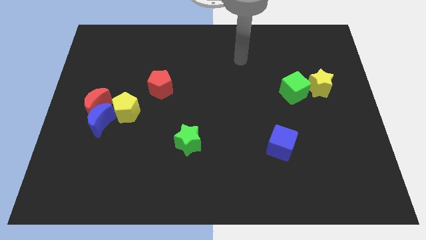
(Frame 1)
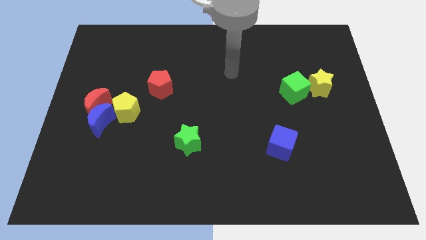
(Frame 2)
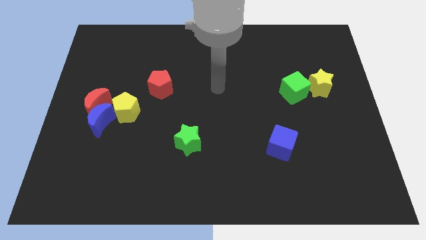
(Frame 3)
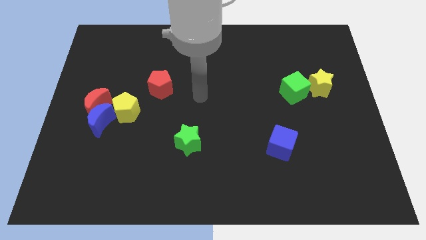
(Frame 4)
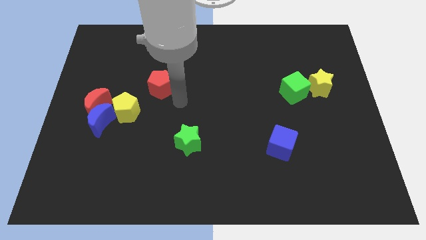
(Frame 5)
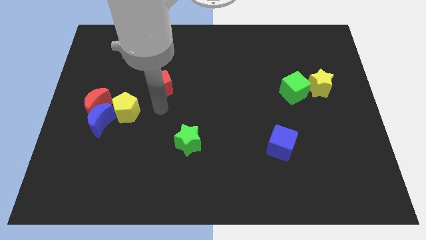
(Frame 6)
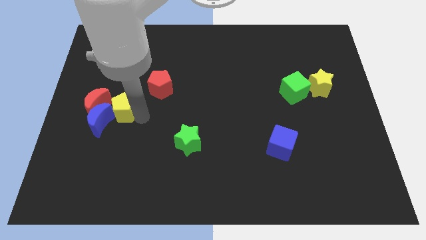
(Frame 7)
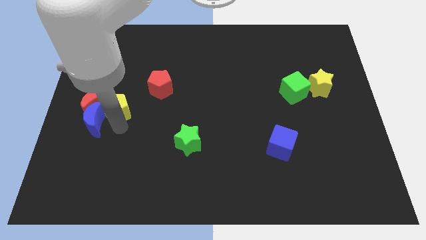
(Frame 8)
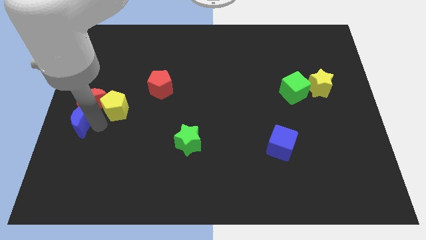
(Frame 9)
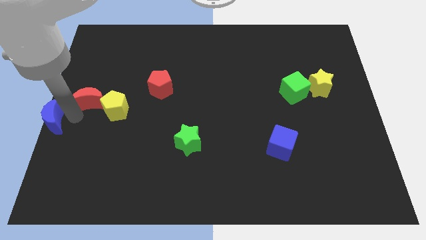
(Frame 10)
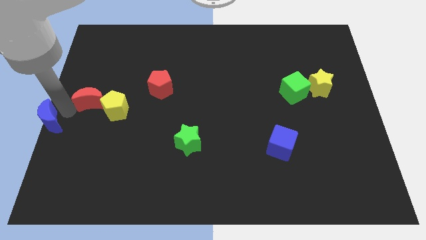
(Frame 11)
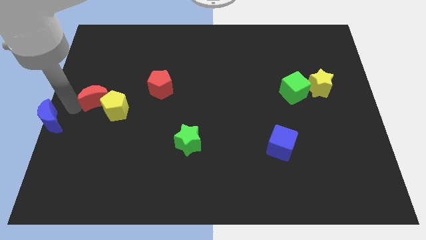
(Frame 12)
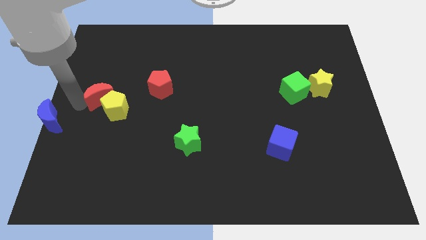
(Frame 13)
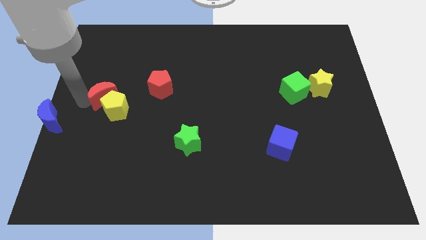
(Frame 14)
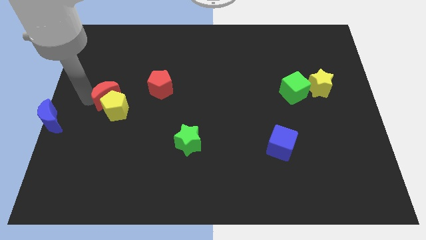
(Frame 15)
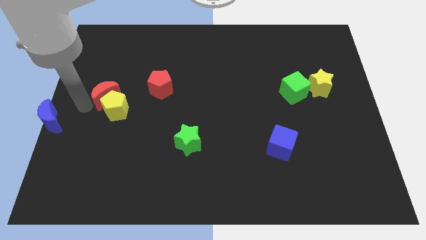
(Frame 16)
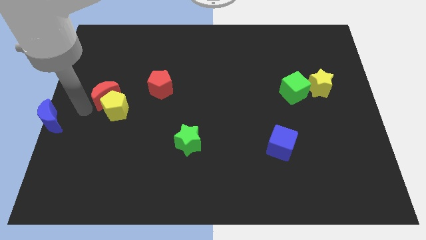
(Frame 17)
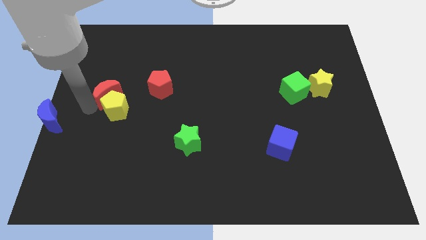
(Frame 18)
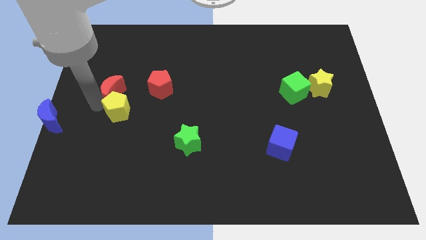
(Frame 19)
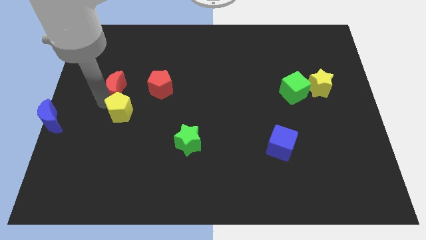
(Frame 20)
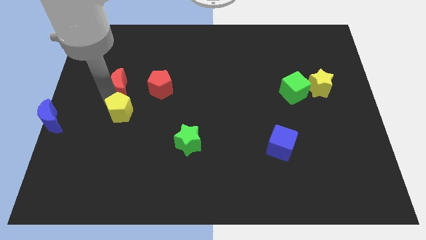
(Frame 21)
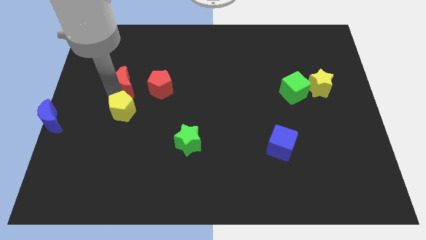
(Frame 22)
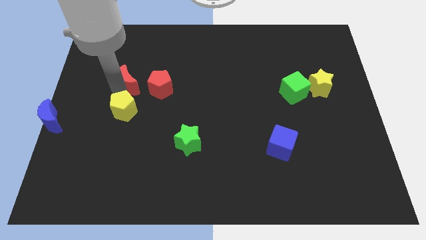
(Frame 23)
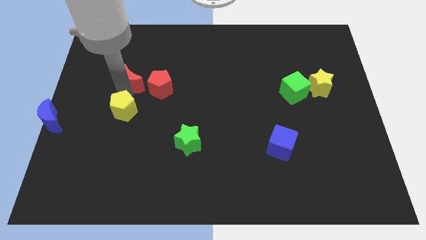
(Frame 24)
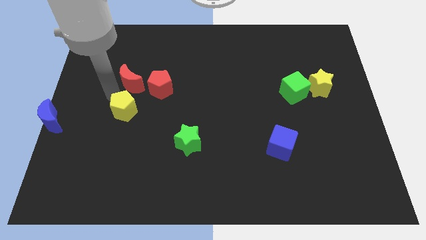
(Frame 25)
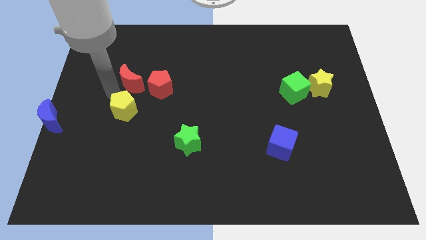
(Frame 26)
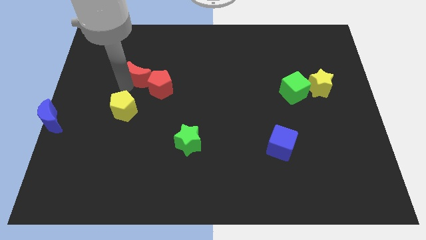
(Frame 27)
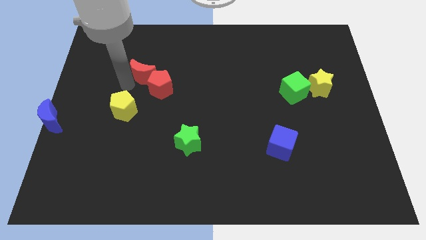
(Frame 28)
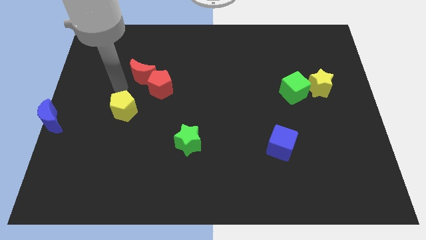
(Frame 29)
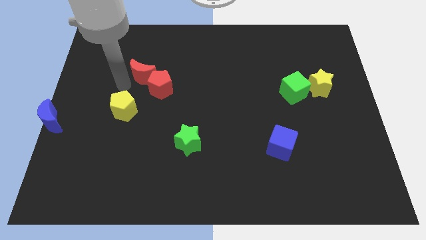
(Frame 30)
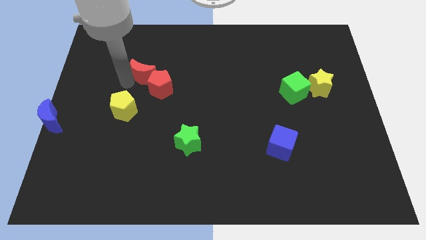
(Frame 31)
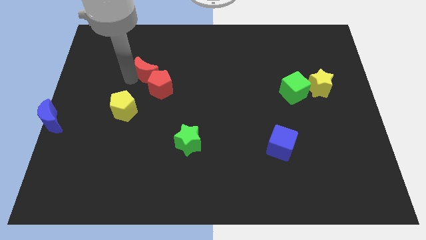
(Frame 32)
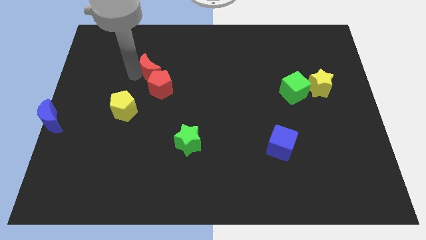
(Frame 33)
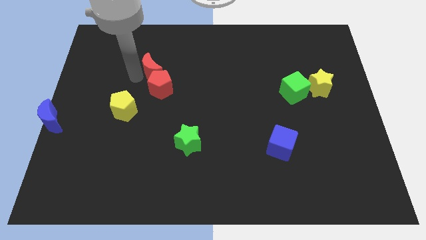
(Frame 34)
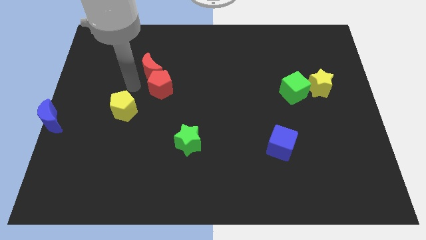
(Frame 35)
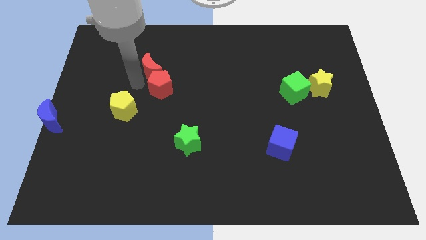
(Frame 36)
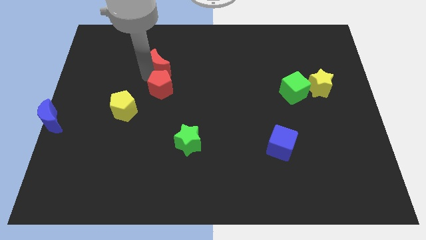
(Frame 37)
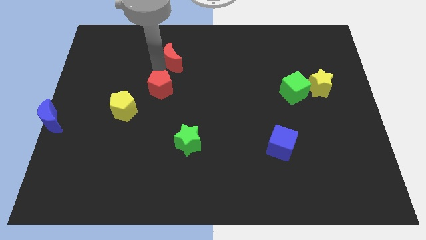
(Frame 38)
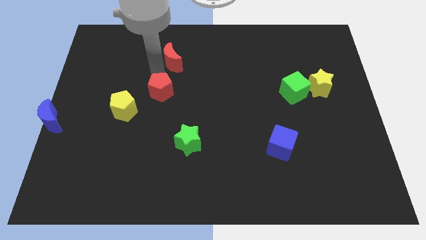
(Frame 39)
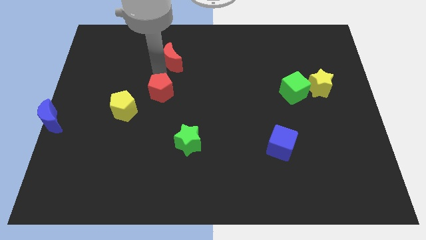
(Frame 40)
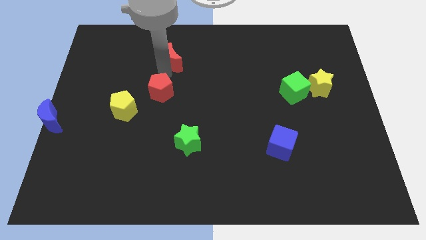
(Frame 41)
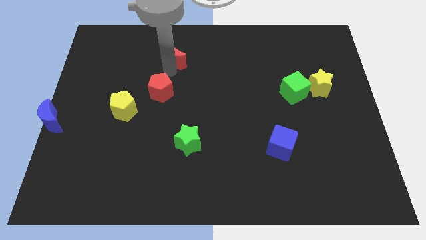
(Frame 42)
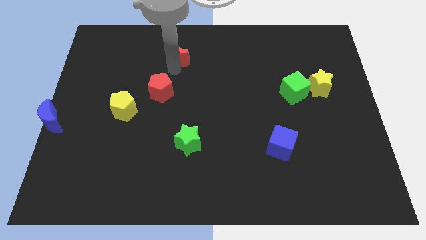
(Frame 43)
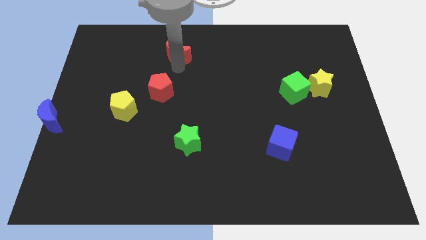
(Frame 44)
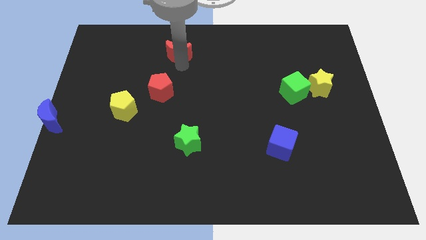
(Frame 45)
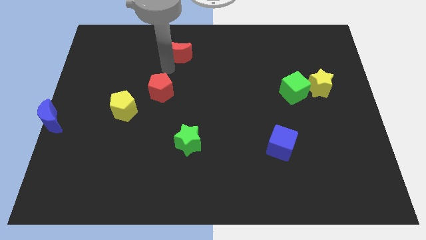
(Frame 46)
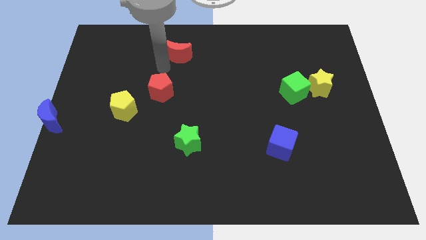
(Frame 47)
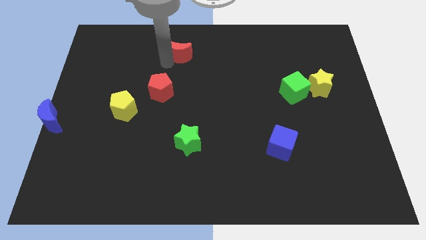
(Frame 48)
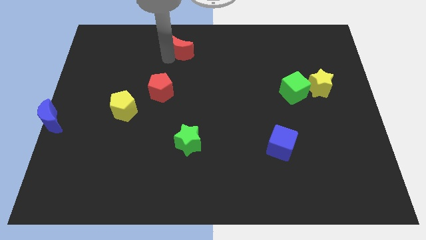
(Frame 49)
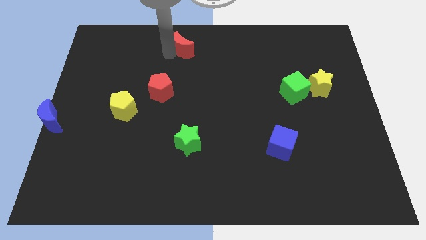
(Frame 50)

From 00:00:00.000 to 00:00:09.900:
move the red moon to the towards your base

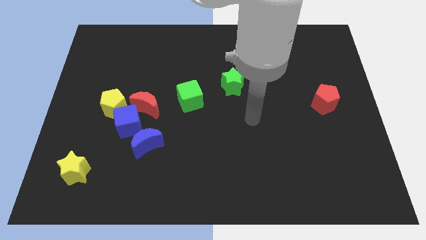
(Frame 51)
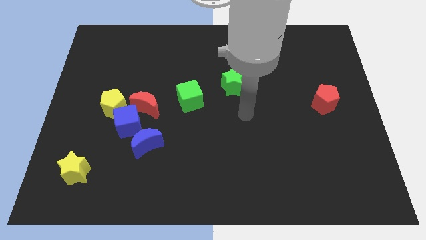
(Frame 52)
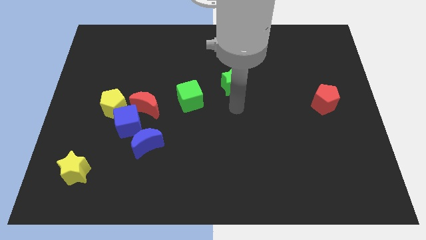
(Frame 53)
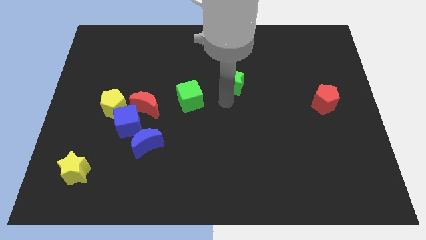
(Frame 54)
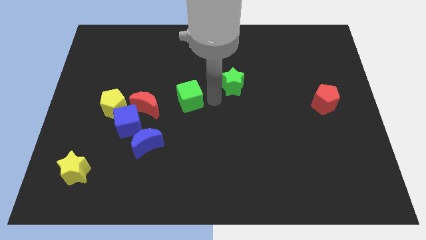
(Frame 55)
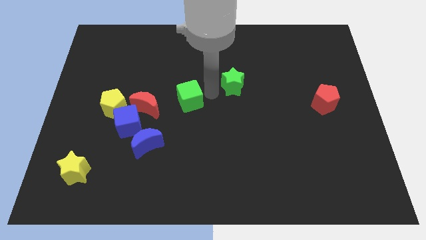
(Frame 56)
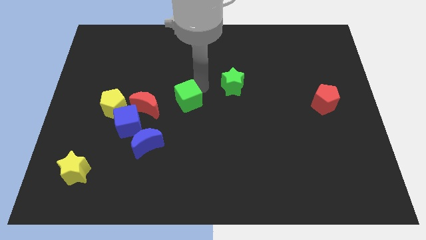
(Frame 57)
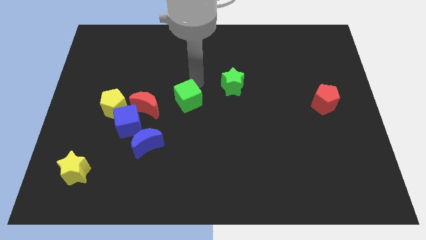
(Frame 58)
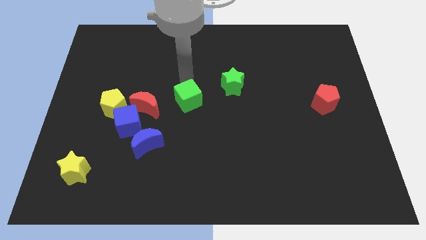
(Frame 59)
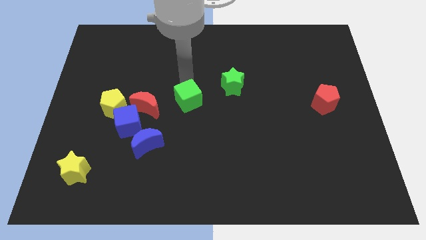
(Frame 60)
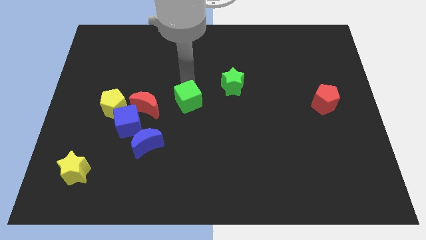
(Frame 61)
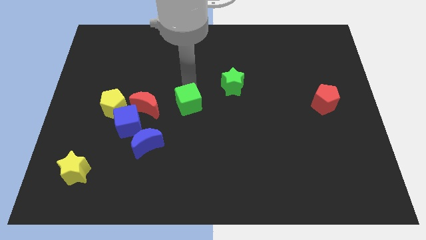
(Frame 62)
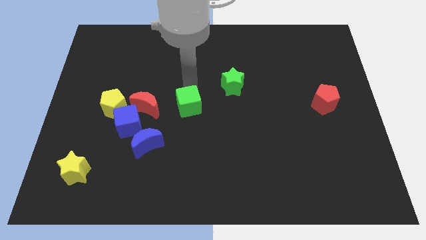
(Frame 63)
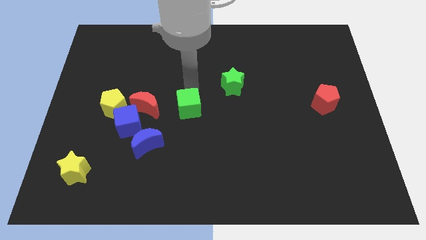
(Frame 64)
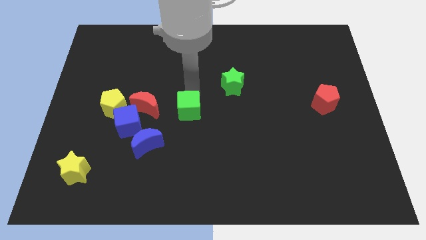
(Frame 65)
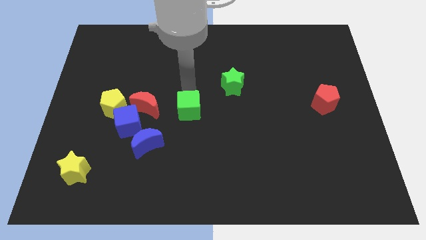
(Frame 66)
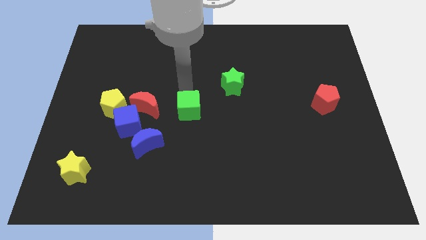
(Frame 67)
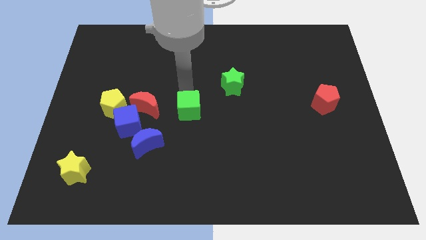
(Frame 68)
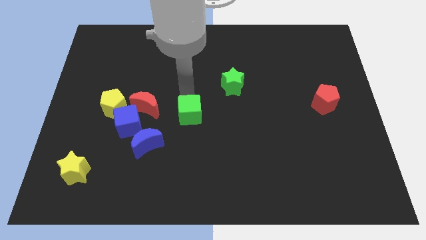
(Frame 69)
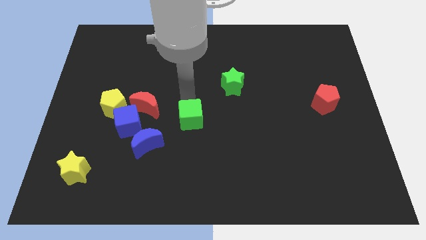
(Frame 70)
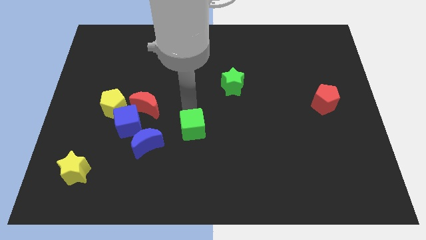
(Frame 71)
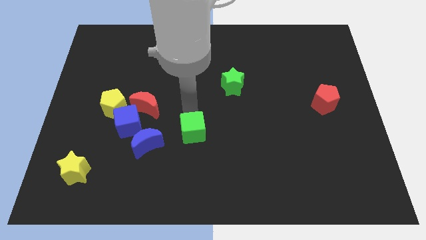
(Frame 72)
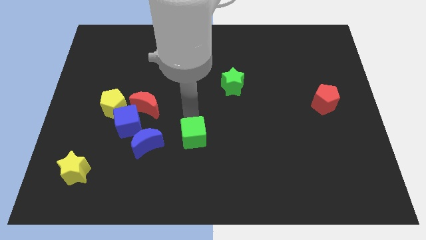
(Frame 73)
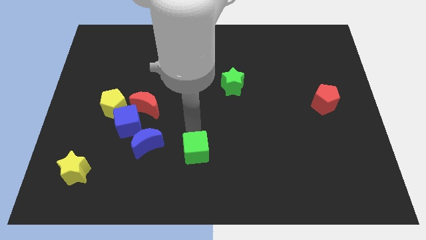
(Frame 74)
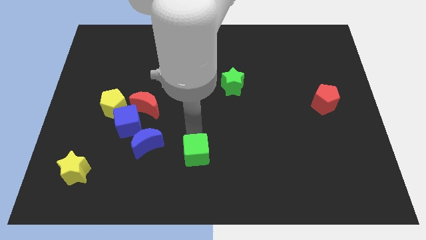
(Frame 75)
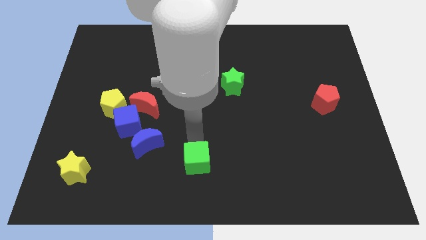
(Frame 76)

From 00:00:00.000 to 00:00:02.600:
move the green cube to the bottom
